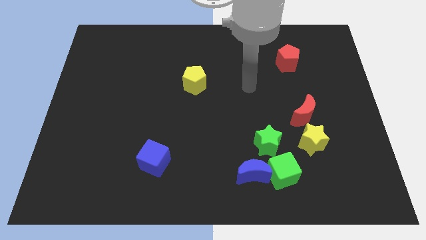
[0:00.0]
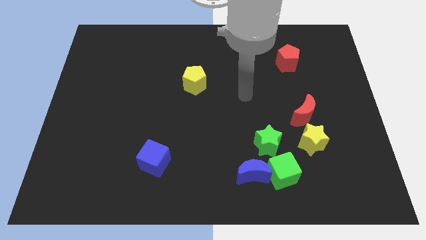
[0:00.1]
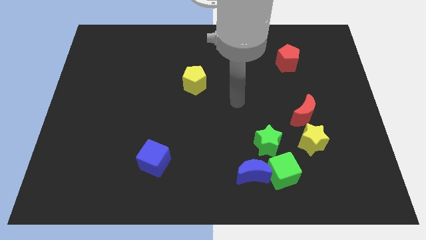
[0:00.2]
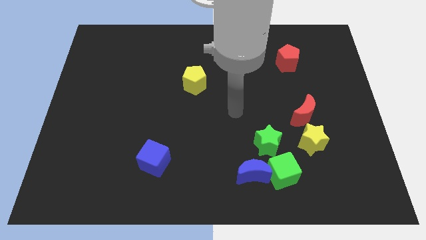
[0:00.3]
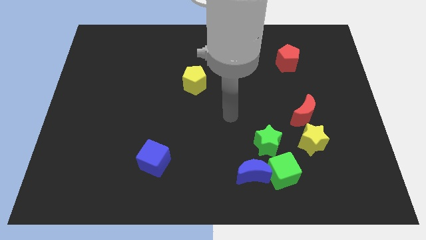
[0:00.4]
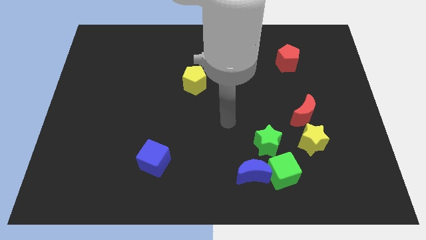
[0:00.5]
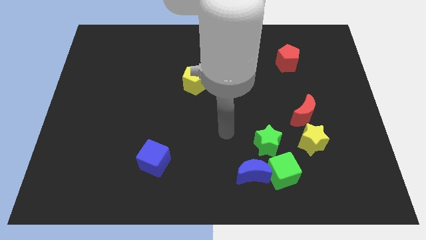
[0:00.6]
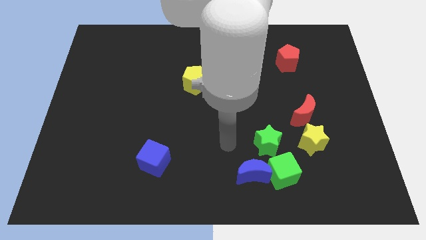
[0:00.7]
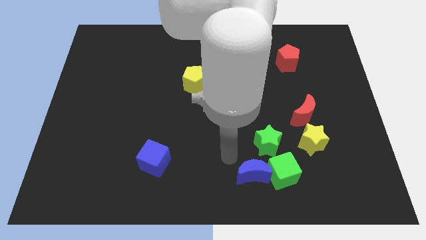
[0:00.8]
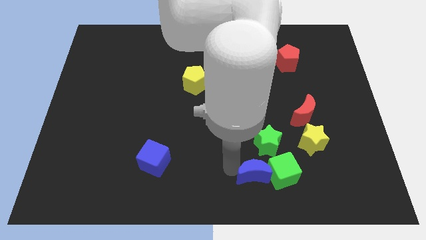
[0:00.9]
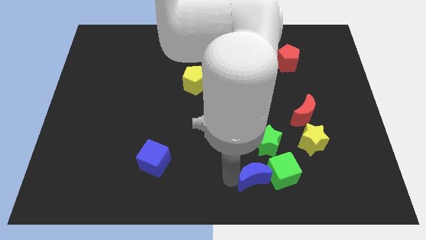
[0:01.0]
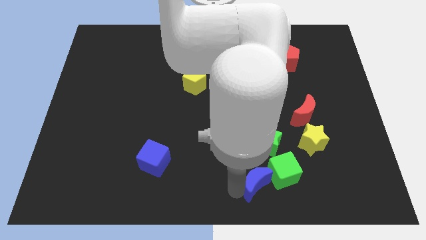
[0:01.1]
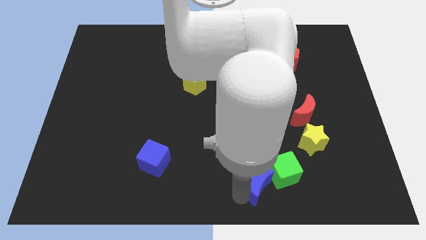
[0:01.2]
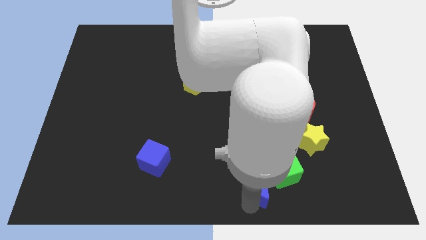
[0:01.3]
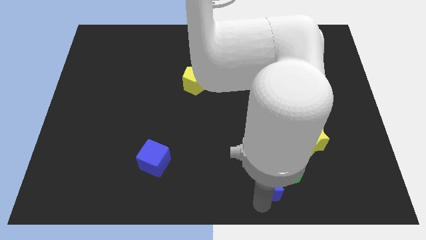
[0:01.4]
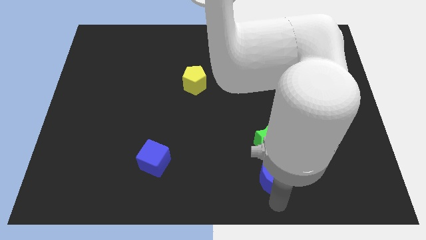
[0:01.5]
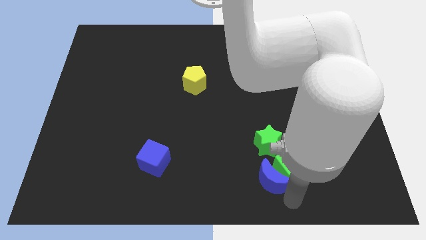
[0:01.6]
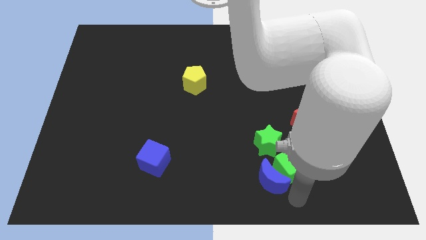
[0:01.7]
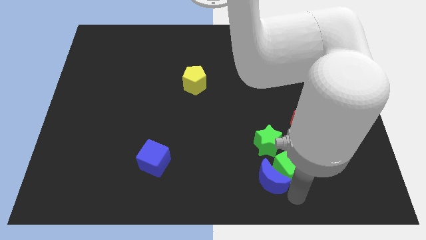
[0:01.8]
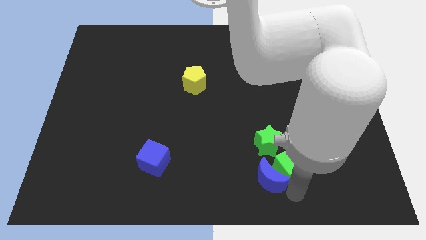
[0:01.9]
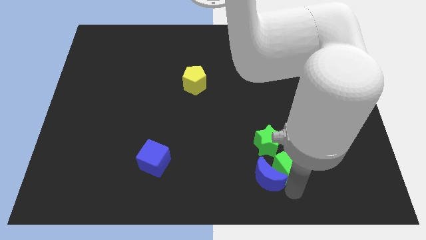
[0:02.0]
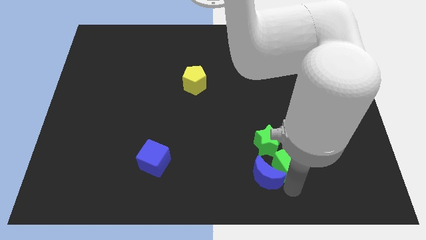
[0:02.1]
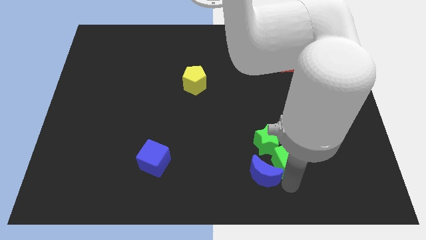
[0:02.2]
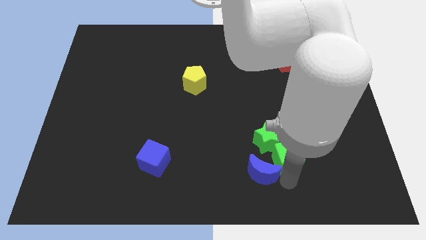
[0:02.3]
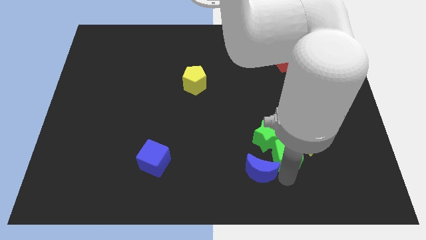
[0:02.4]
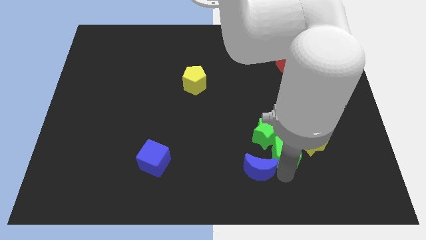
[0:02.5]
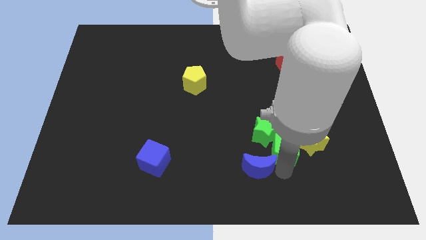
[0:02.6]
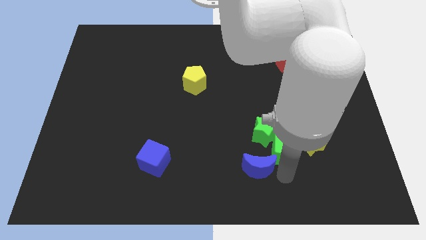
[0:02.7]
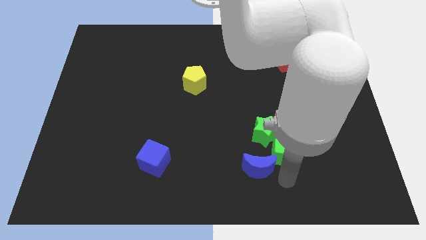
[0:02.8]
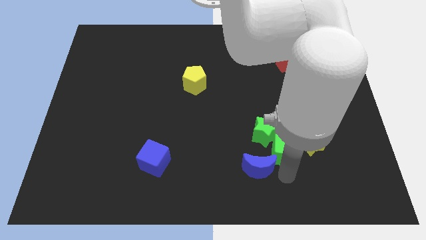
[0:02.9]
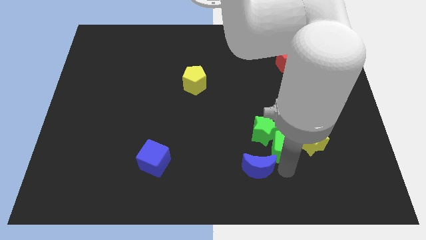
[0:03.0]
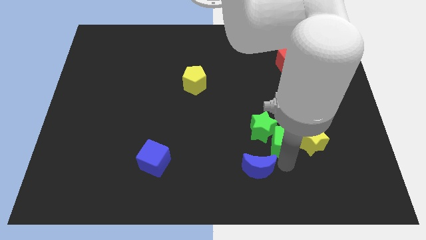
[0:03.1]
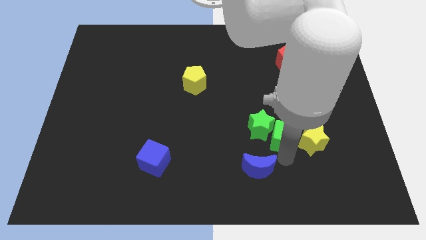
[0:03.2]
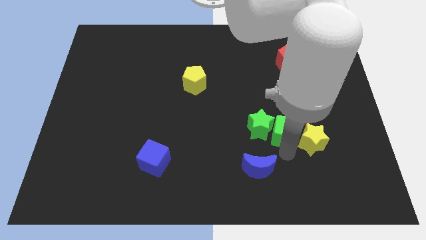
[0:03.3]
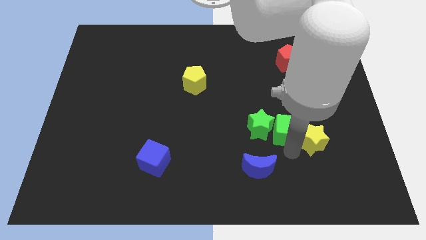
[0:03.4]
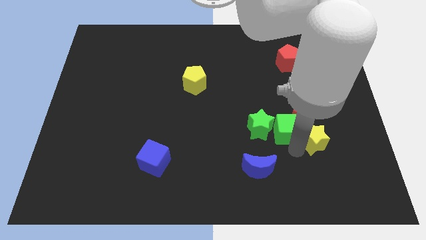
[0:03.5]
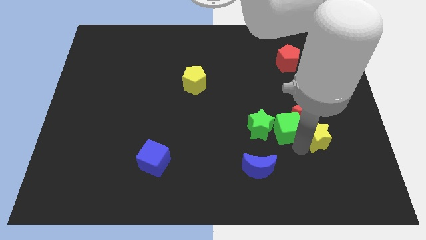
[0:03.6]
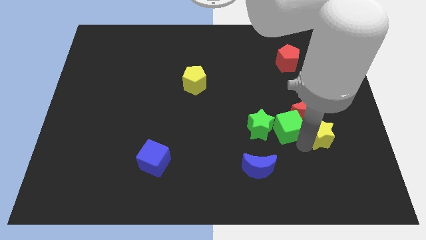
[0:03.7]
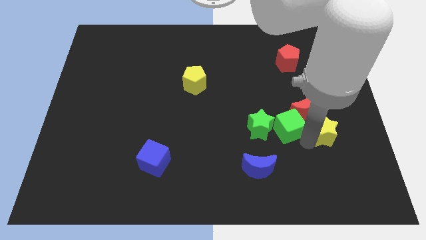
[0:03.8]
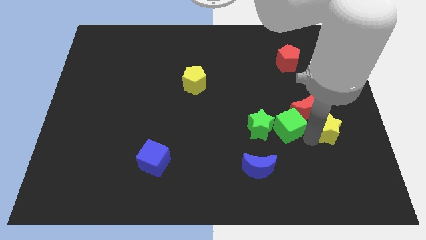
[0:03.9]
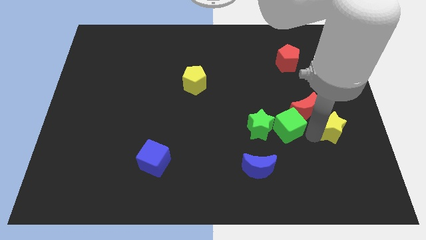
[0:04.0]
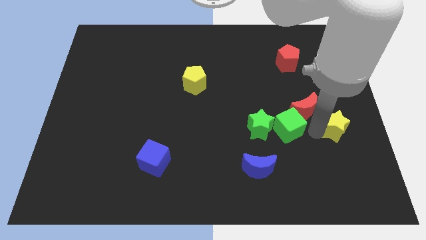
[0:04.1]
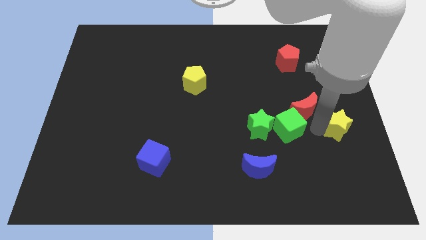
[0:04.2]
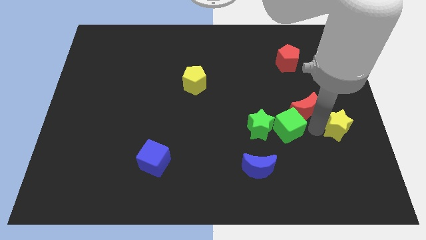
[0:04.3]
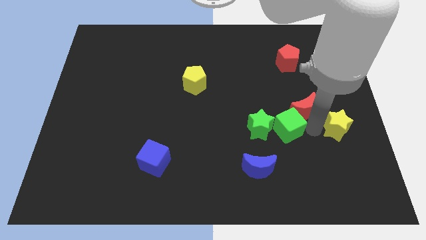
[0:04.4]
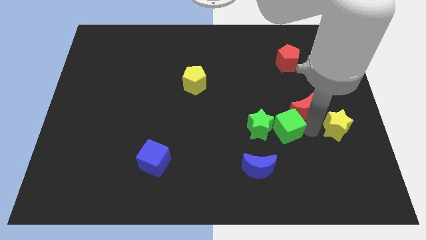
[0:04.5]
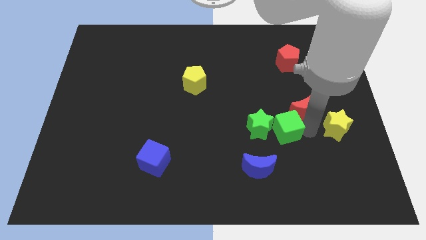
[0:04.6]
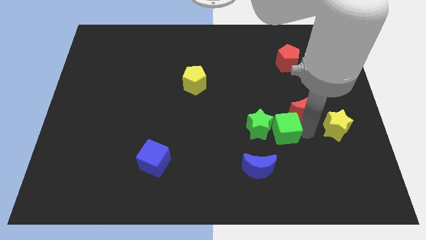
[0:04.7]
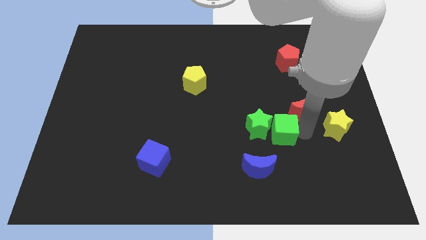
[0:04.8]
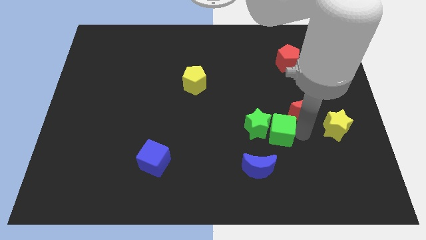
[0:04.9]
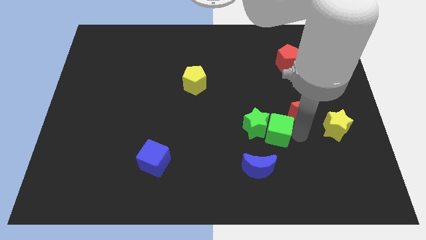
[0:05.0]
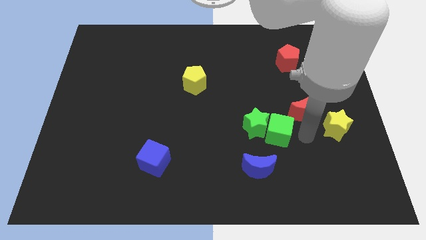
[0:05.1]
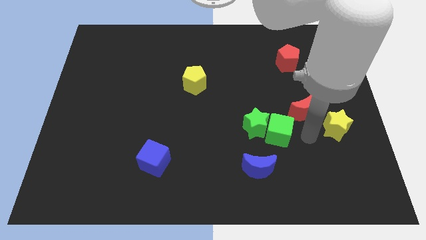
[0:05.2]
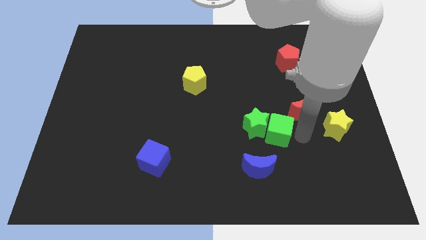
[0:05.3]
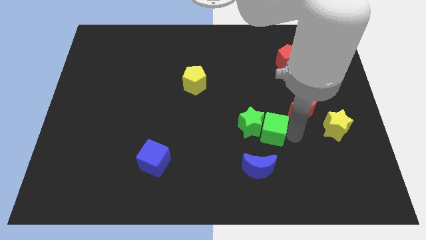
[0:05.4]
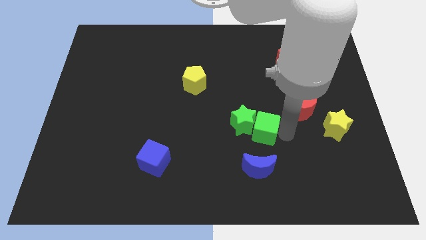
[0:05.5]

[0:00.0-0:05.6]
push the green cube a little bit diagonally upwards and to the left

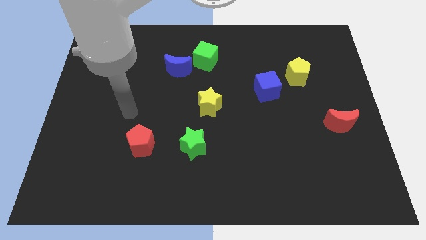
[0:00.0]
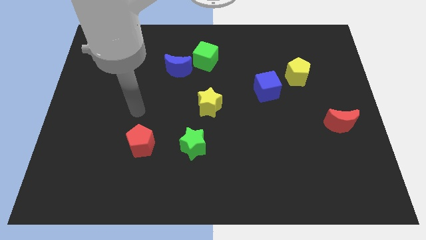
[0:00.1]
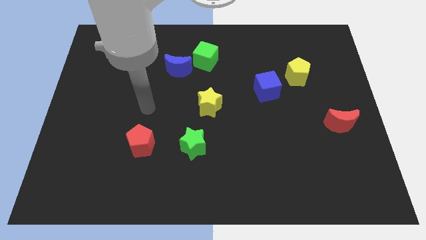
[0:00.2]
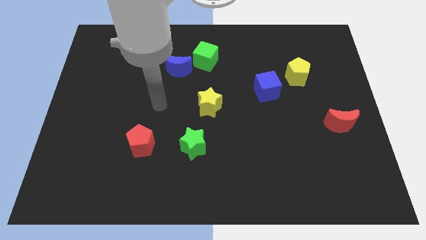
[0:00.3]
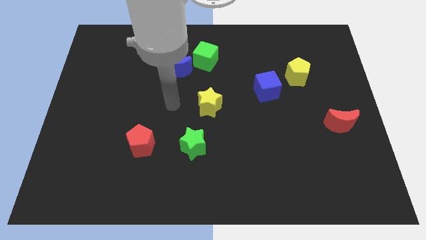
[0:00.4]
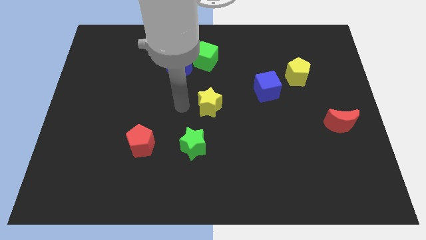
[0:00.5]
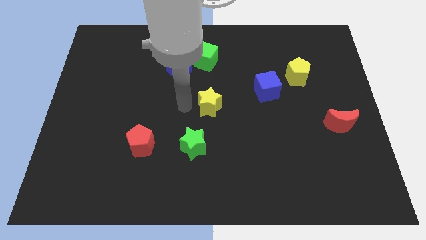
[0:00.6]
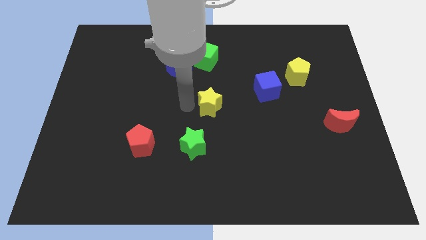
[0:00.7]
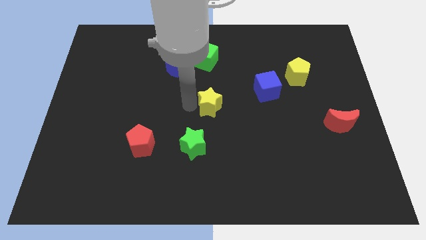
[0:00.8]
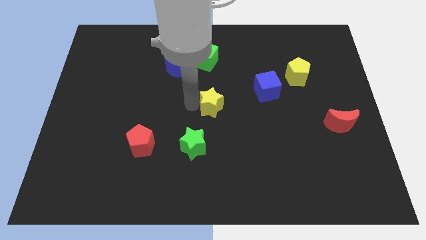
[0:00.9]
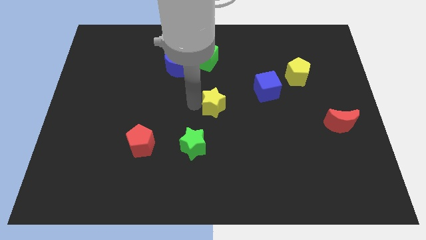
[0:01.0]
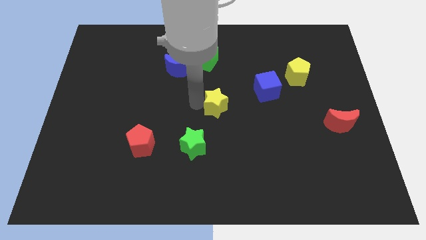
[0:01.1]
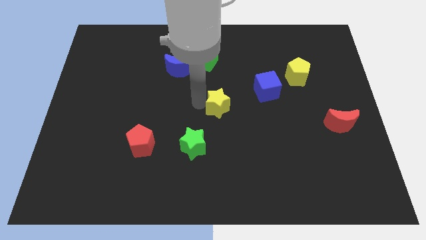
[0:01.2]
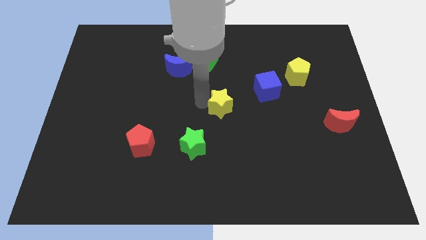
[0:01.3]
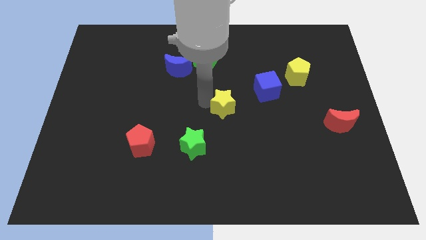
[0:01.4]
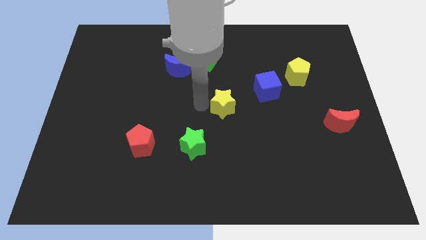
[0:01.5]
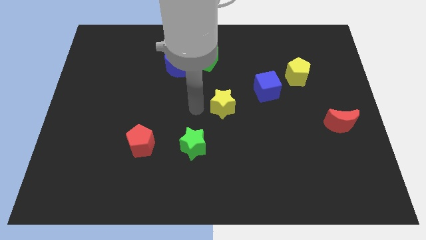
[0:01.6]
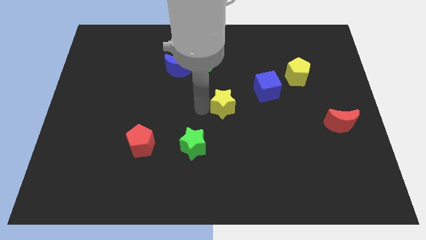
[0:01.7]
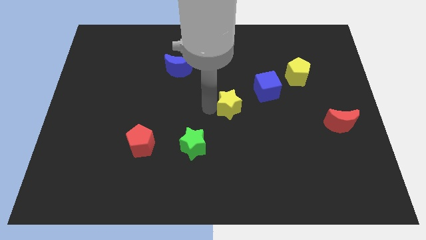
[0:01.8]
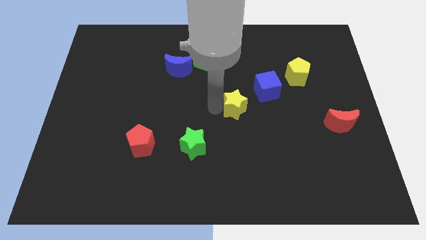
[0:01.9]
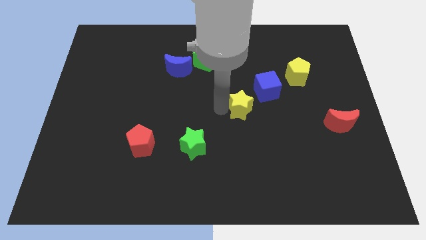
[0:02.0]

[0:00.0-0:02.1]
slide the yellow star to the right a bit

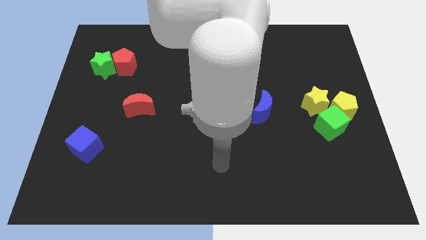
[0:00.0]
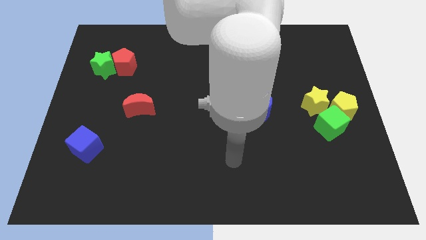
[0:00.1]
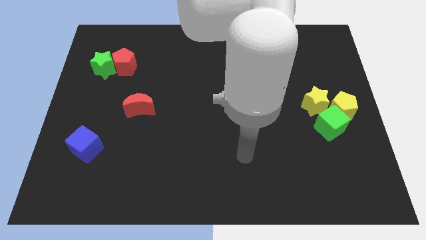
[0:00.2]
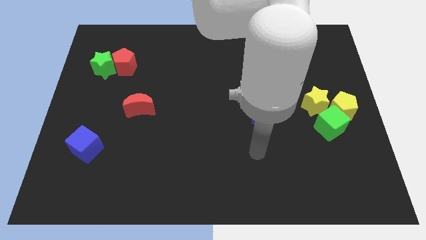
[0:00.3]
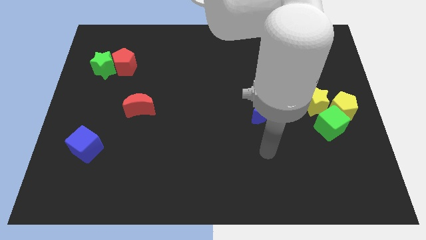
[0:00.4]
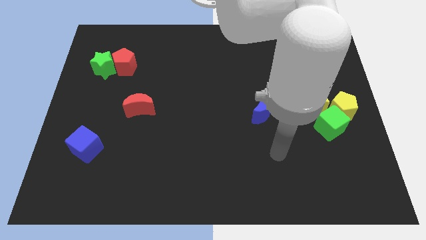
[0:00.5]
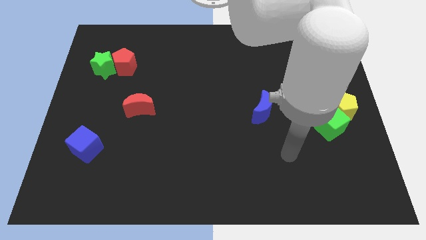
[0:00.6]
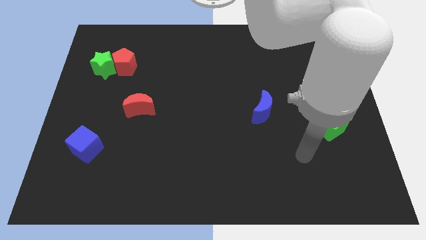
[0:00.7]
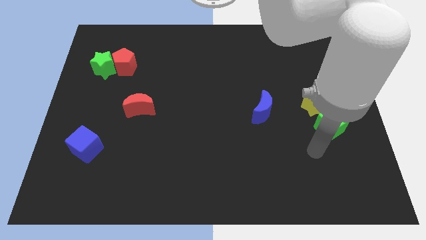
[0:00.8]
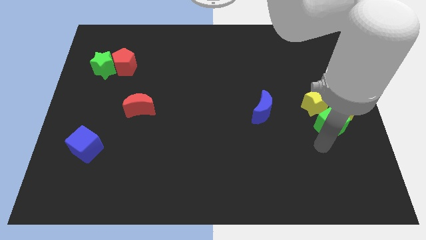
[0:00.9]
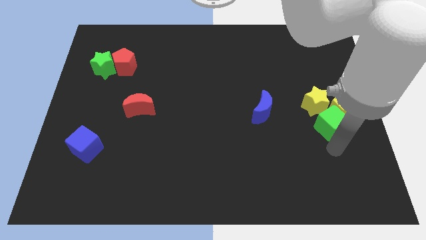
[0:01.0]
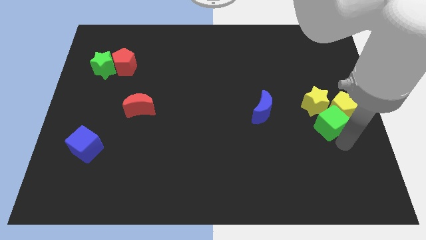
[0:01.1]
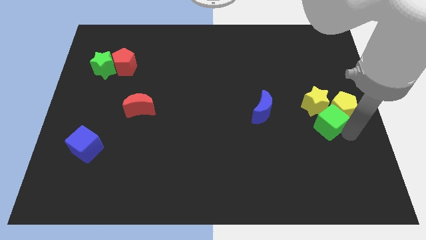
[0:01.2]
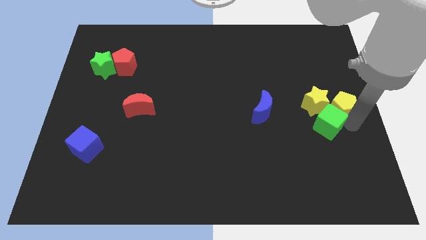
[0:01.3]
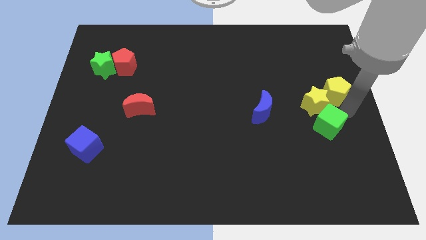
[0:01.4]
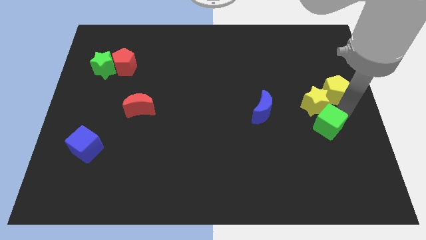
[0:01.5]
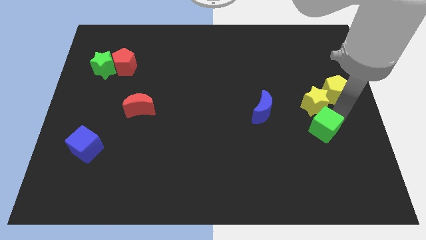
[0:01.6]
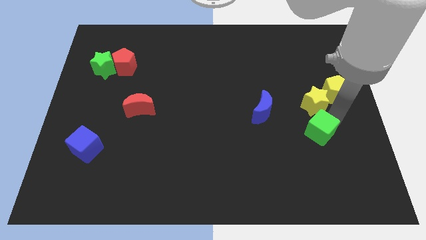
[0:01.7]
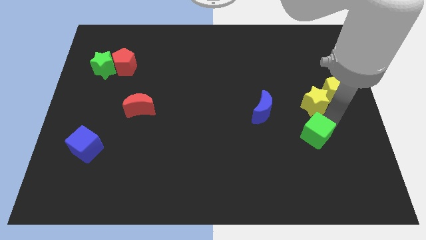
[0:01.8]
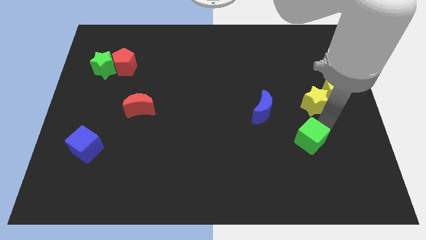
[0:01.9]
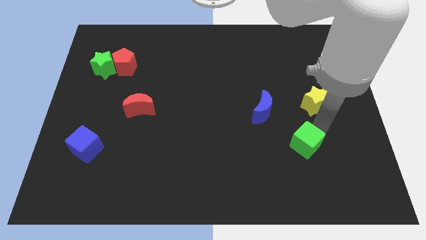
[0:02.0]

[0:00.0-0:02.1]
move the green cube slightly down and left diagonally
